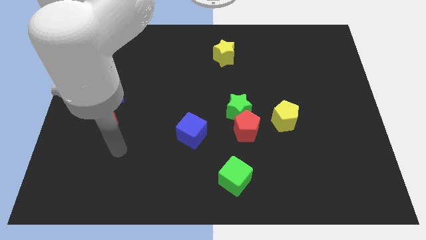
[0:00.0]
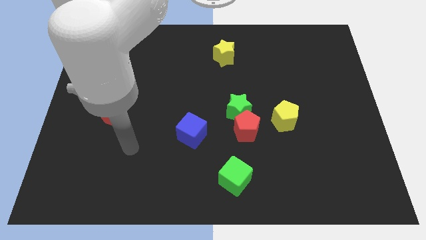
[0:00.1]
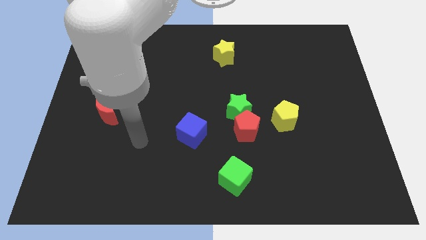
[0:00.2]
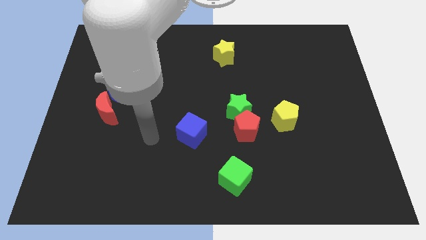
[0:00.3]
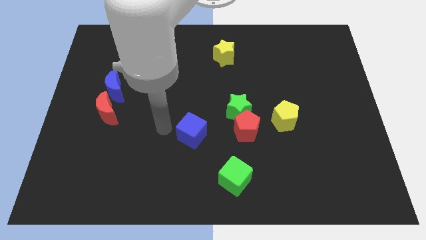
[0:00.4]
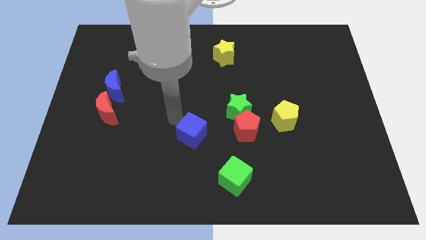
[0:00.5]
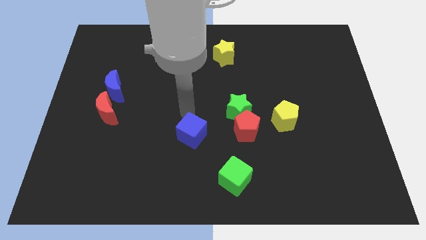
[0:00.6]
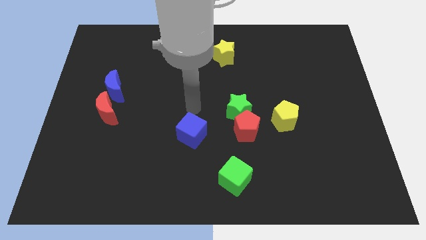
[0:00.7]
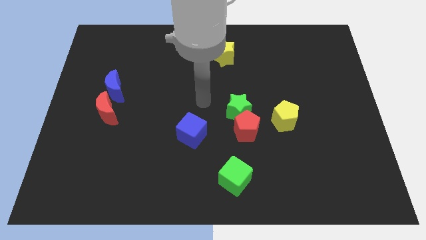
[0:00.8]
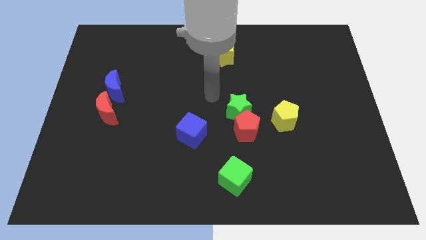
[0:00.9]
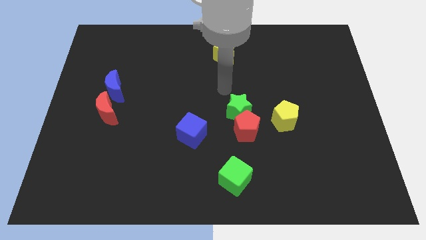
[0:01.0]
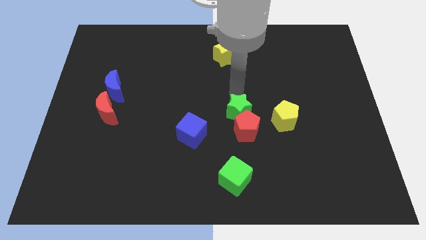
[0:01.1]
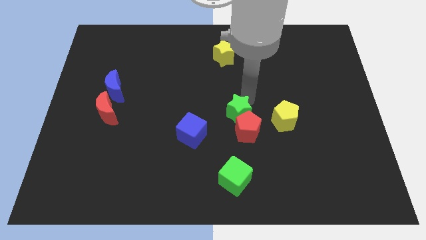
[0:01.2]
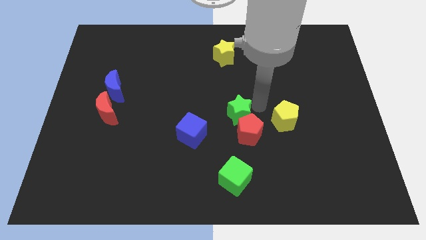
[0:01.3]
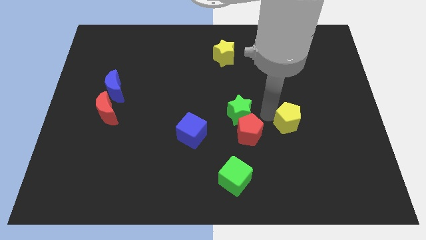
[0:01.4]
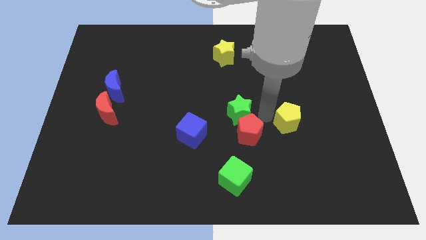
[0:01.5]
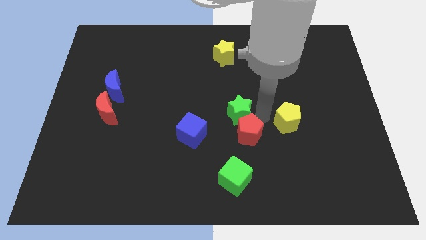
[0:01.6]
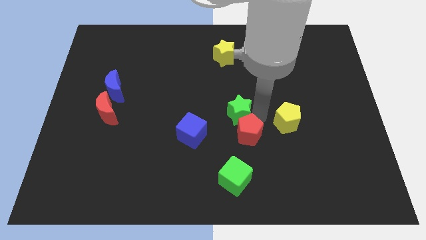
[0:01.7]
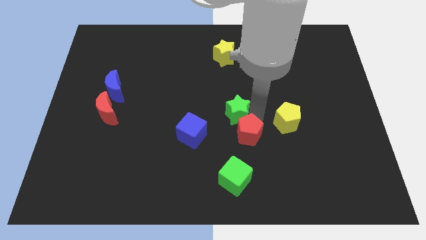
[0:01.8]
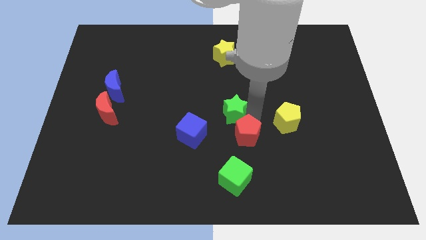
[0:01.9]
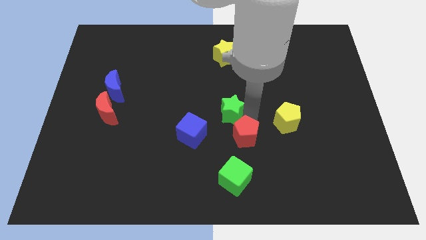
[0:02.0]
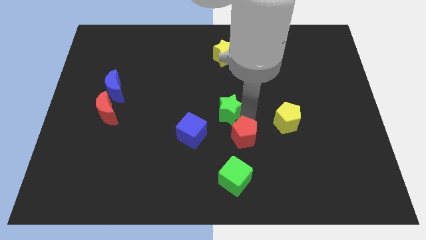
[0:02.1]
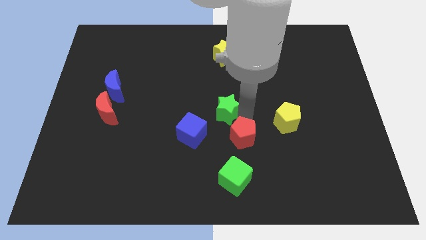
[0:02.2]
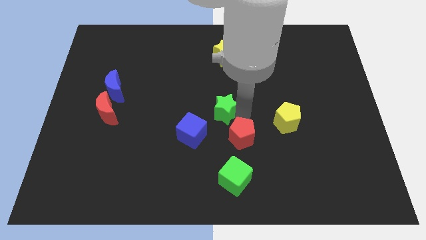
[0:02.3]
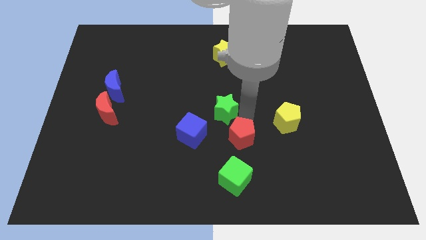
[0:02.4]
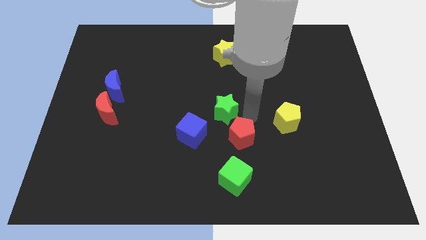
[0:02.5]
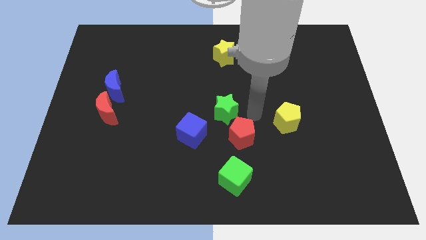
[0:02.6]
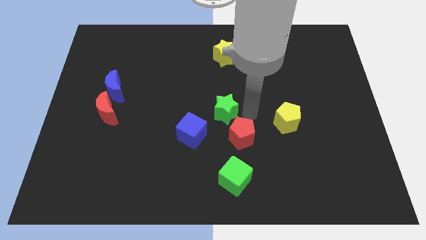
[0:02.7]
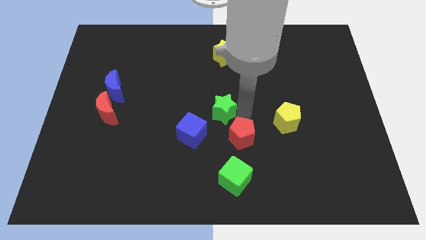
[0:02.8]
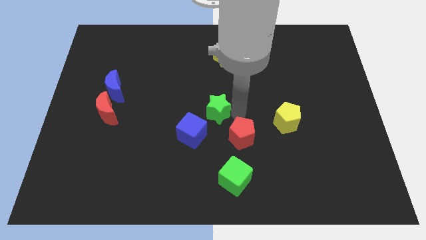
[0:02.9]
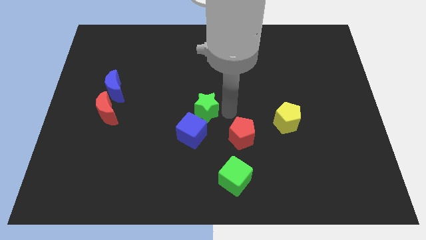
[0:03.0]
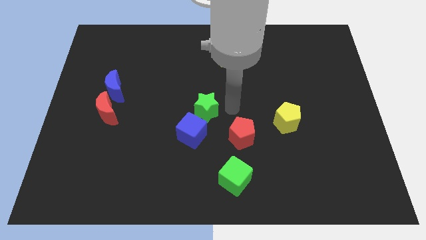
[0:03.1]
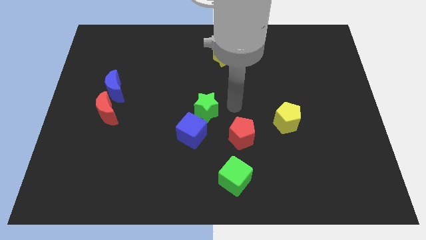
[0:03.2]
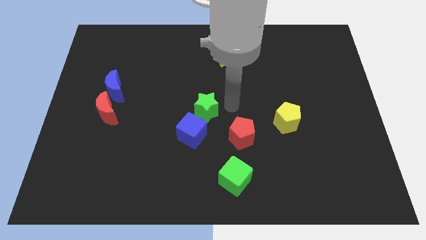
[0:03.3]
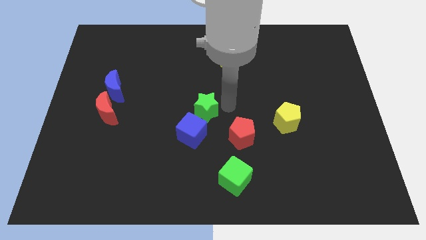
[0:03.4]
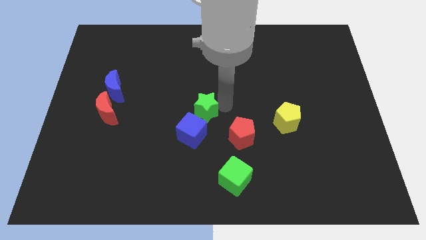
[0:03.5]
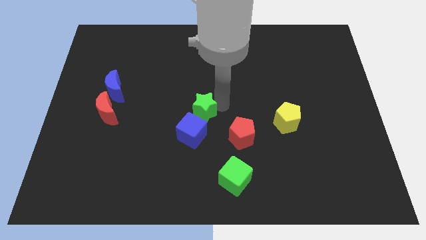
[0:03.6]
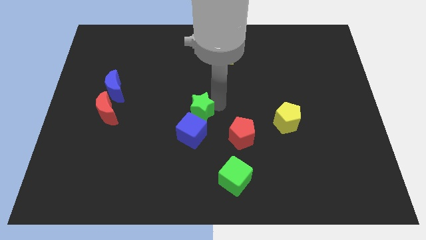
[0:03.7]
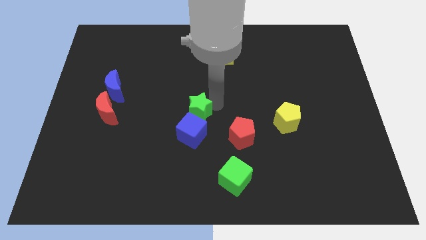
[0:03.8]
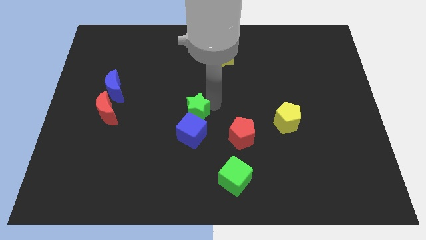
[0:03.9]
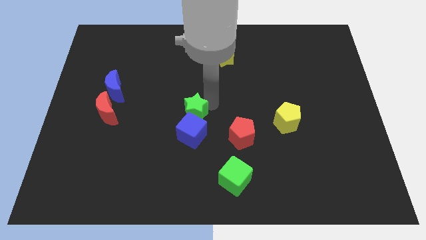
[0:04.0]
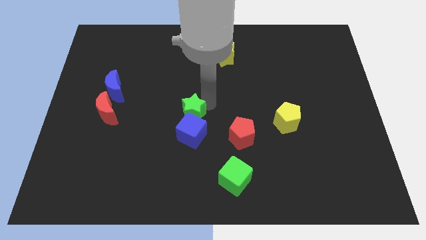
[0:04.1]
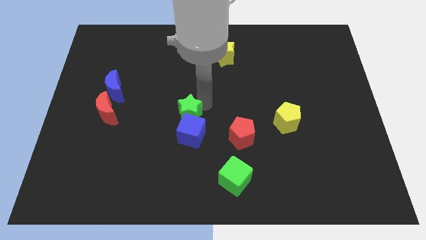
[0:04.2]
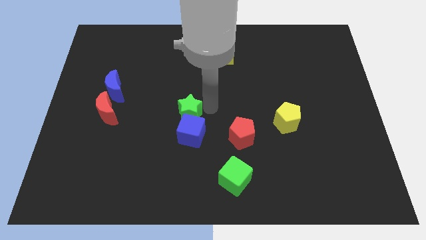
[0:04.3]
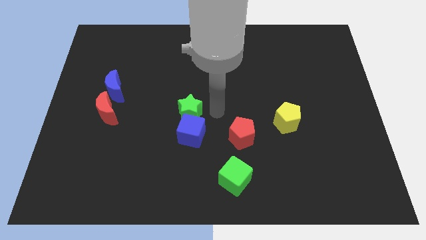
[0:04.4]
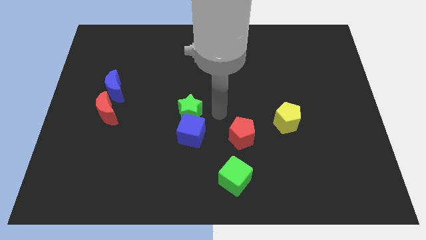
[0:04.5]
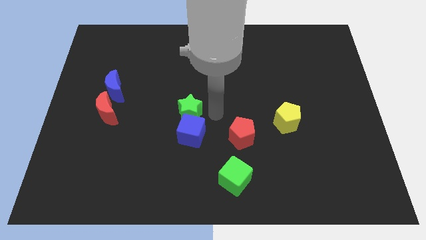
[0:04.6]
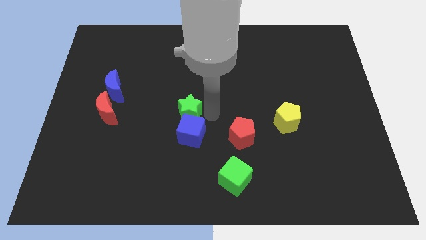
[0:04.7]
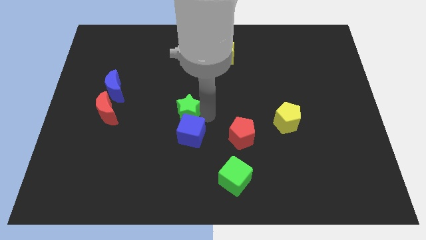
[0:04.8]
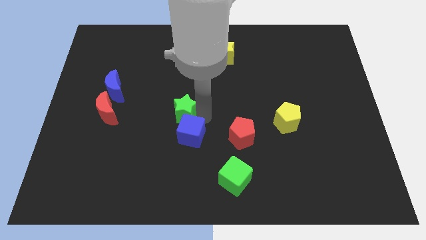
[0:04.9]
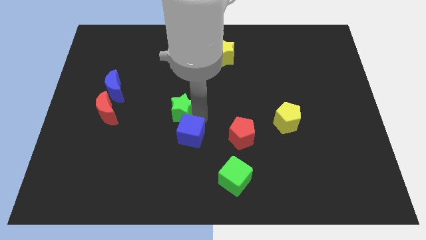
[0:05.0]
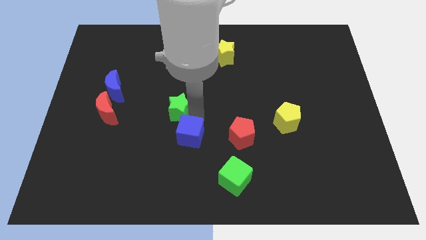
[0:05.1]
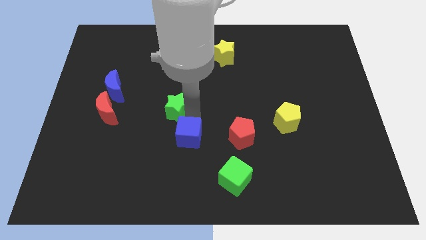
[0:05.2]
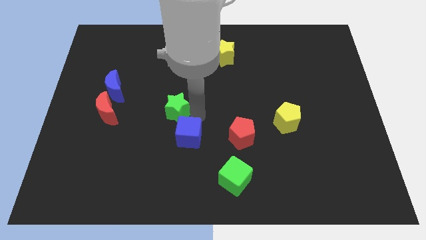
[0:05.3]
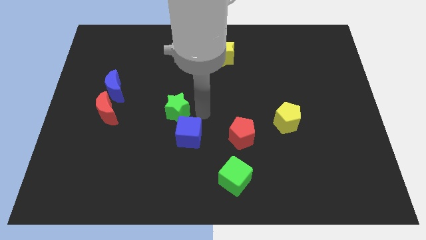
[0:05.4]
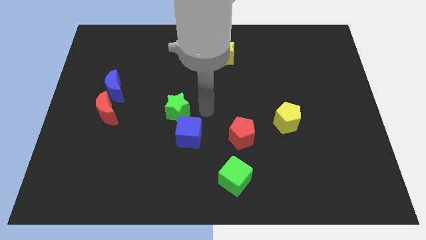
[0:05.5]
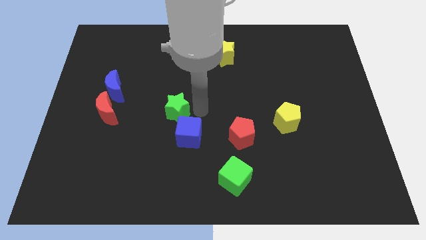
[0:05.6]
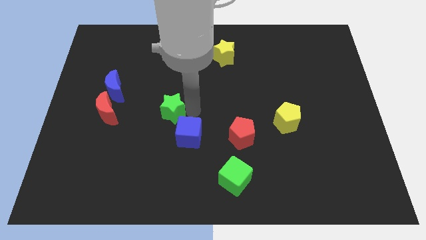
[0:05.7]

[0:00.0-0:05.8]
slide the green star right of the red moon
